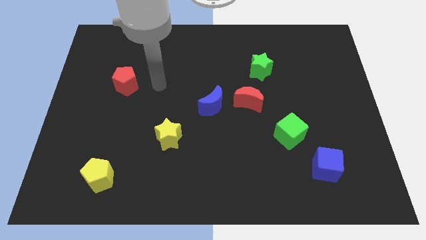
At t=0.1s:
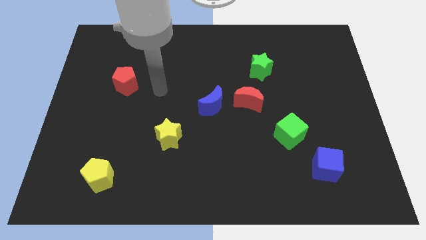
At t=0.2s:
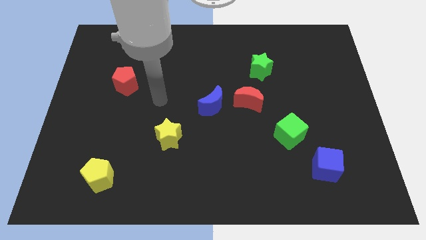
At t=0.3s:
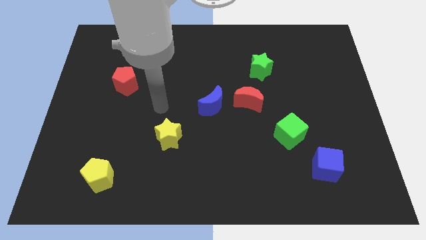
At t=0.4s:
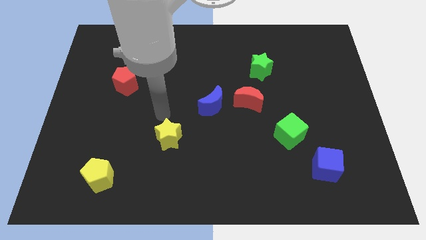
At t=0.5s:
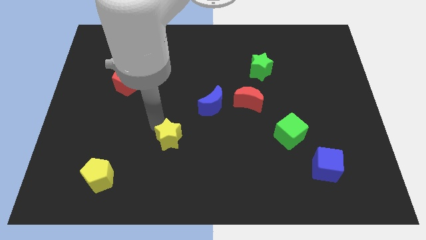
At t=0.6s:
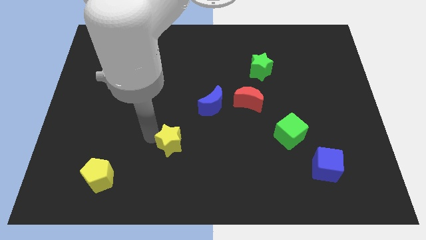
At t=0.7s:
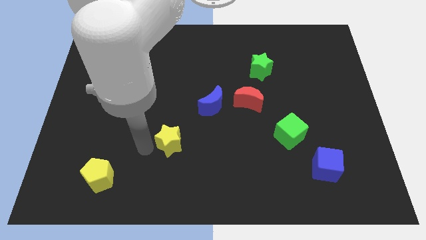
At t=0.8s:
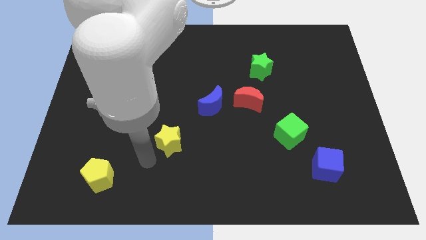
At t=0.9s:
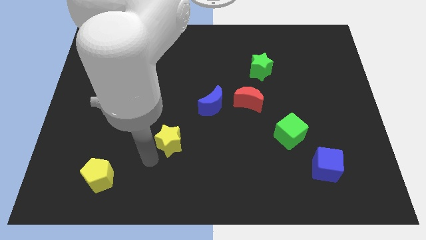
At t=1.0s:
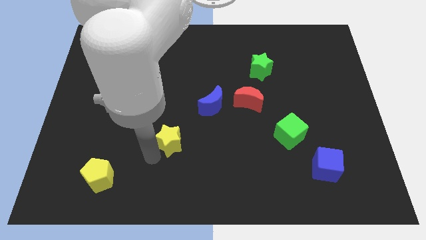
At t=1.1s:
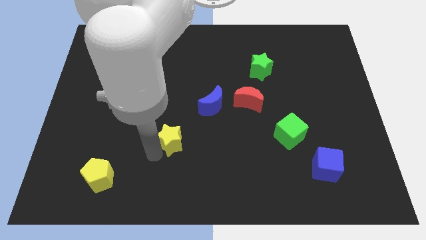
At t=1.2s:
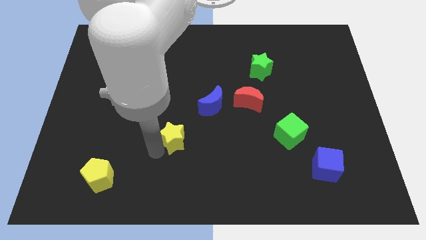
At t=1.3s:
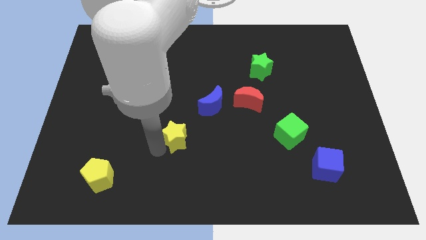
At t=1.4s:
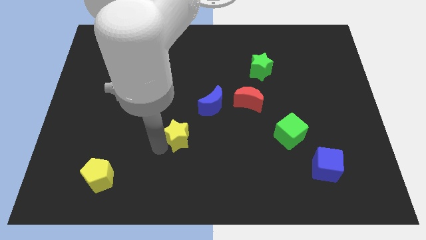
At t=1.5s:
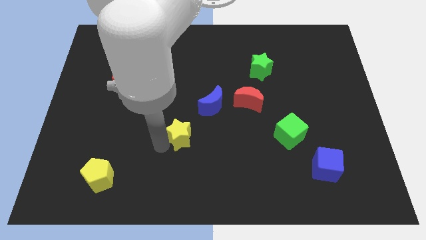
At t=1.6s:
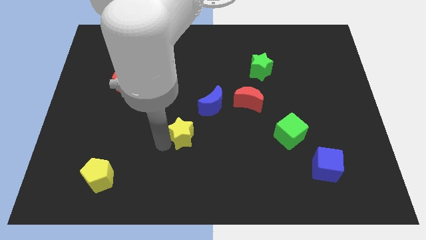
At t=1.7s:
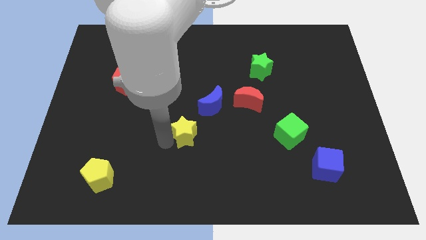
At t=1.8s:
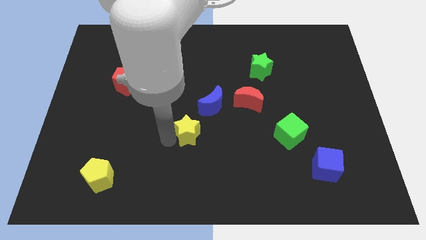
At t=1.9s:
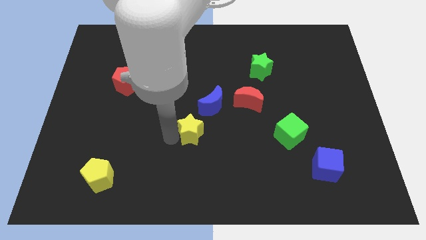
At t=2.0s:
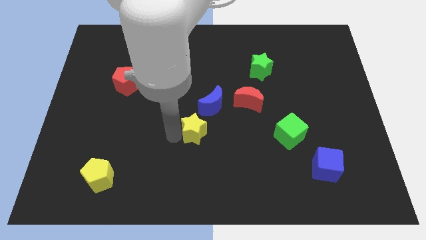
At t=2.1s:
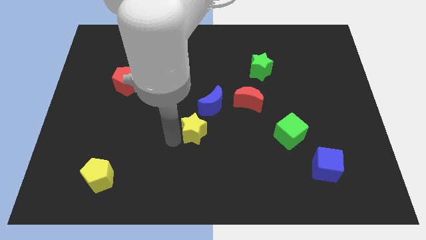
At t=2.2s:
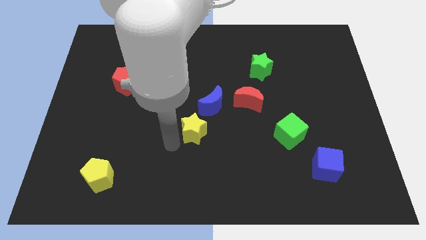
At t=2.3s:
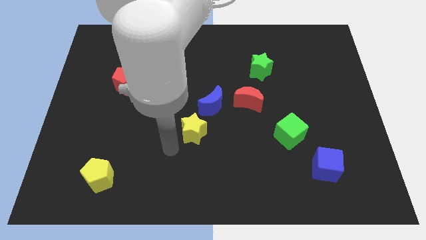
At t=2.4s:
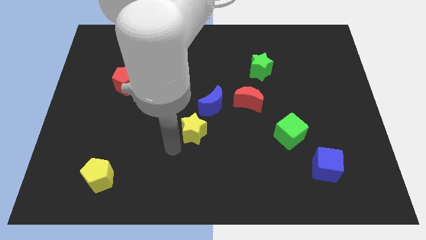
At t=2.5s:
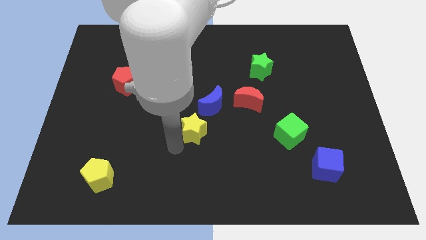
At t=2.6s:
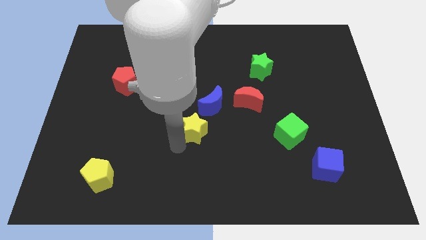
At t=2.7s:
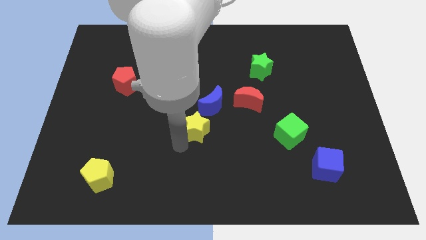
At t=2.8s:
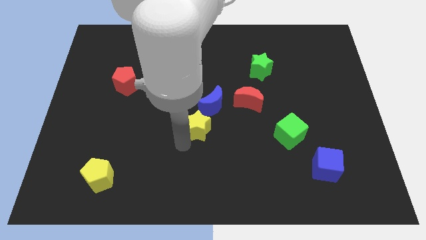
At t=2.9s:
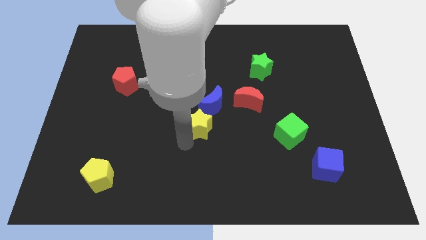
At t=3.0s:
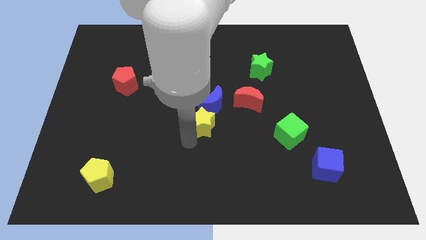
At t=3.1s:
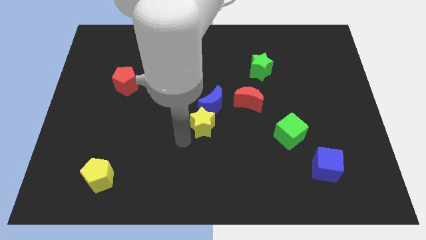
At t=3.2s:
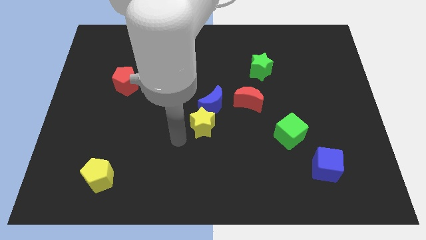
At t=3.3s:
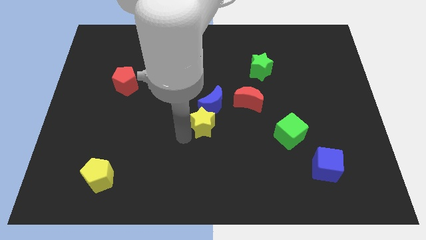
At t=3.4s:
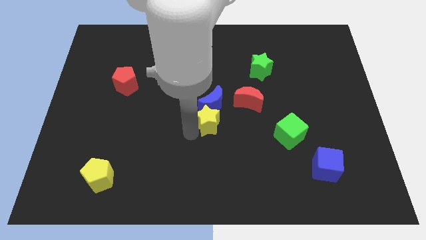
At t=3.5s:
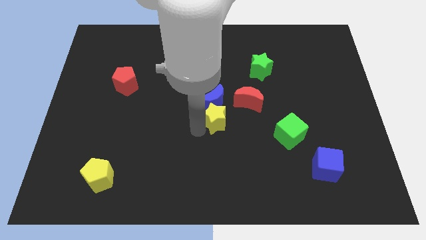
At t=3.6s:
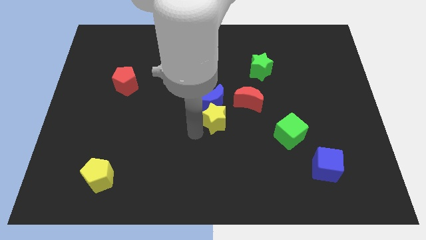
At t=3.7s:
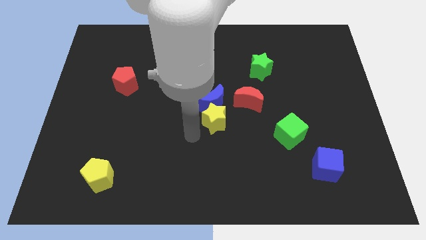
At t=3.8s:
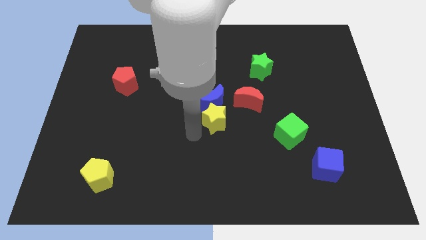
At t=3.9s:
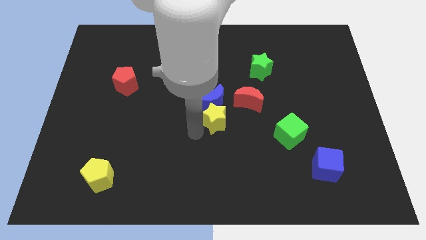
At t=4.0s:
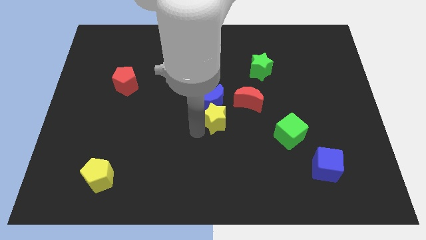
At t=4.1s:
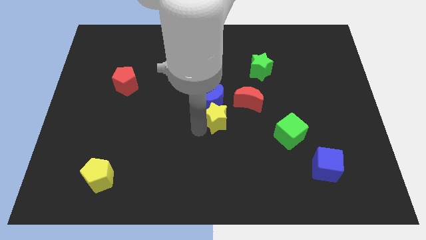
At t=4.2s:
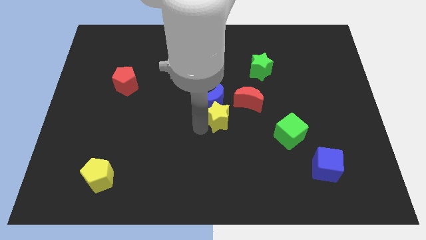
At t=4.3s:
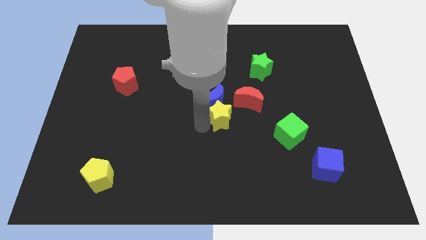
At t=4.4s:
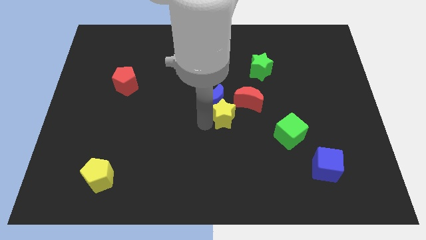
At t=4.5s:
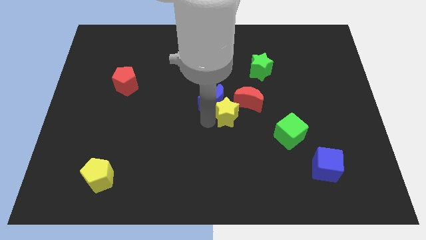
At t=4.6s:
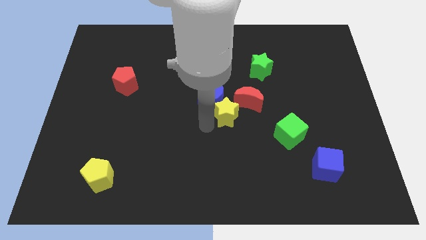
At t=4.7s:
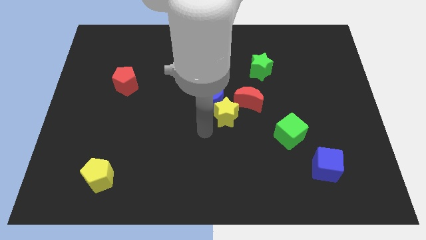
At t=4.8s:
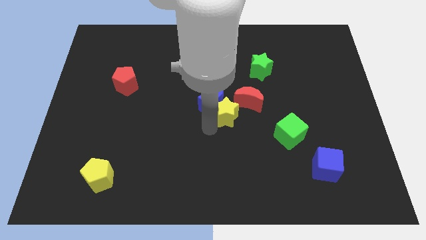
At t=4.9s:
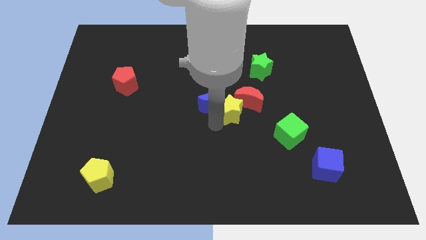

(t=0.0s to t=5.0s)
put the yellow star to the red moon

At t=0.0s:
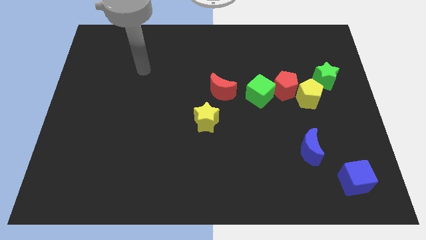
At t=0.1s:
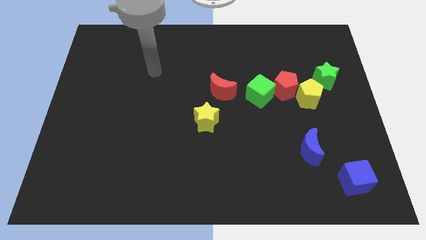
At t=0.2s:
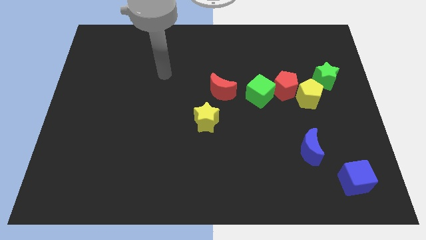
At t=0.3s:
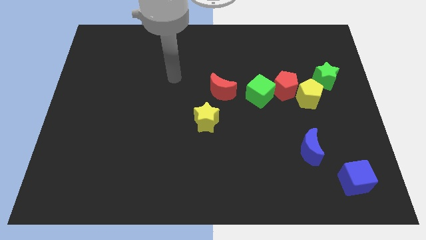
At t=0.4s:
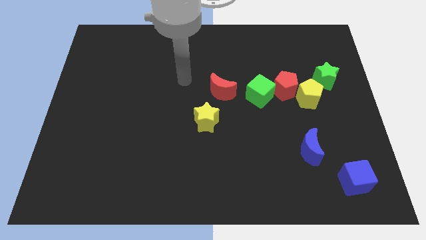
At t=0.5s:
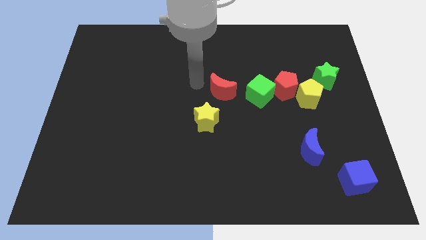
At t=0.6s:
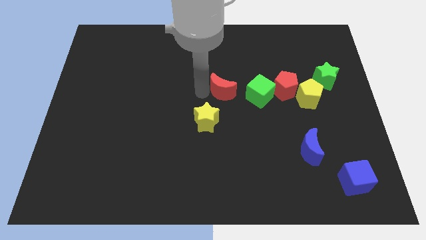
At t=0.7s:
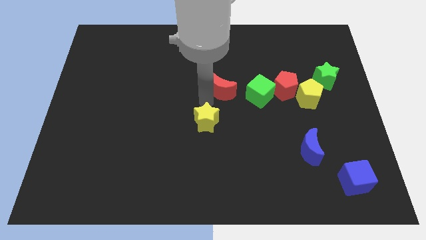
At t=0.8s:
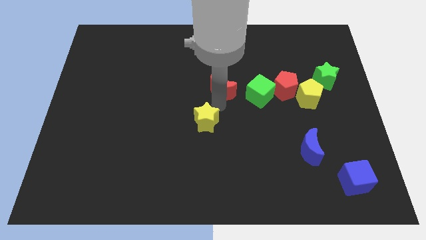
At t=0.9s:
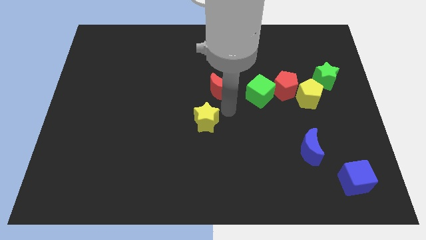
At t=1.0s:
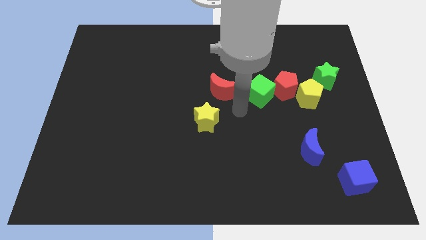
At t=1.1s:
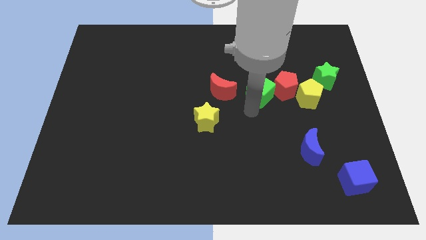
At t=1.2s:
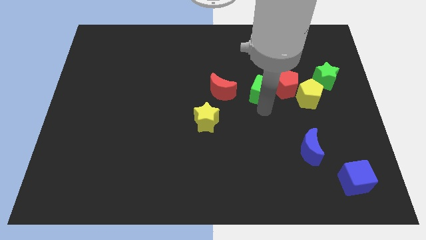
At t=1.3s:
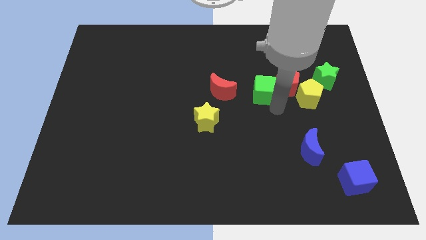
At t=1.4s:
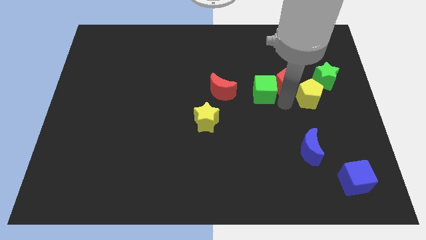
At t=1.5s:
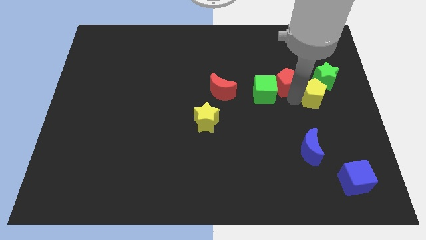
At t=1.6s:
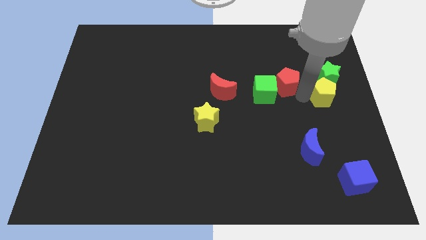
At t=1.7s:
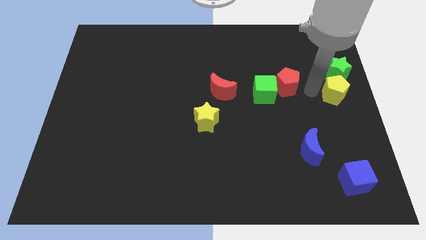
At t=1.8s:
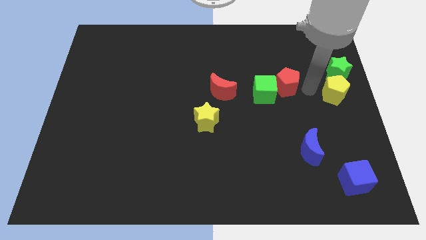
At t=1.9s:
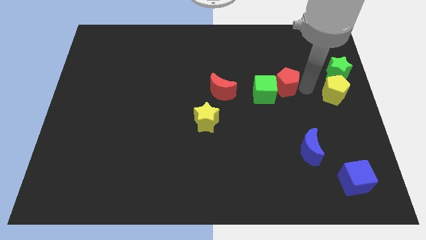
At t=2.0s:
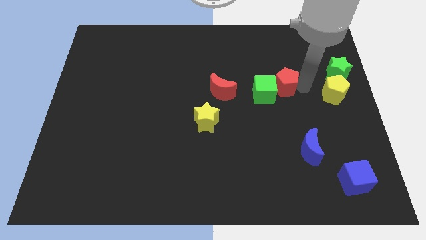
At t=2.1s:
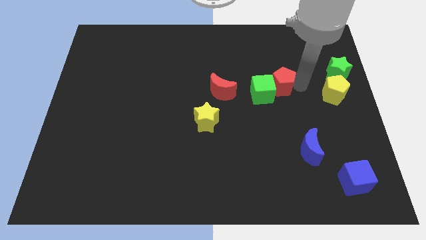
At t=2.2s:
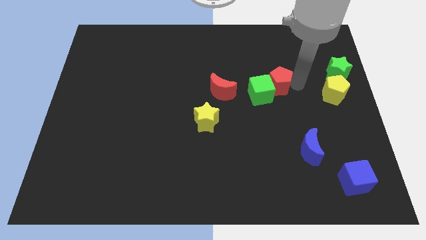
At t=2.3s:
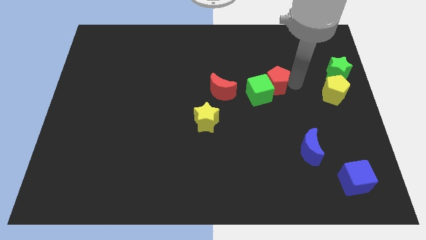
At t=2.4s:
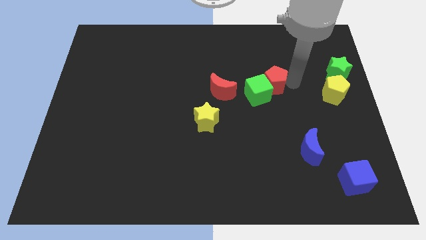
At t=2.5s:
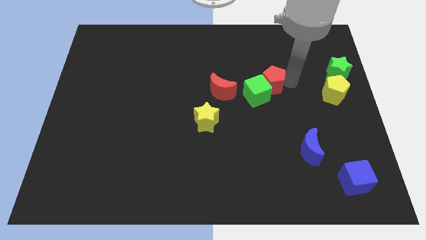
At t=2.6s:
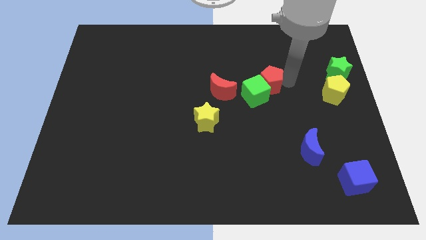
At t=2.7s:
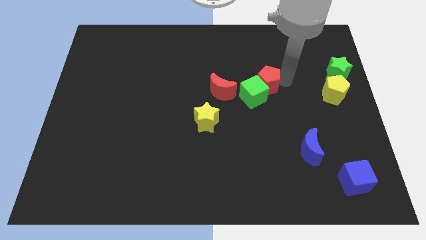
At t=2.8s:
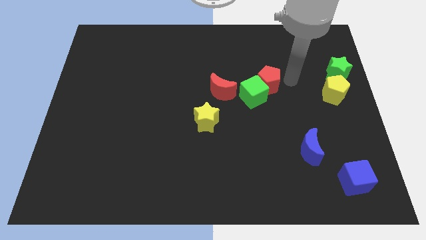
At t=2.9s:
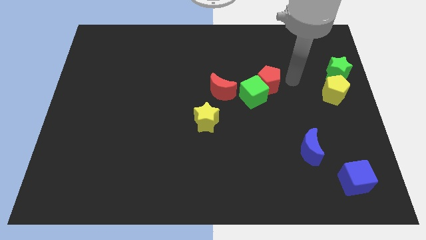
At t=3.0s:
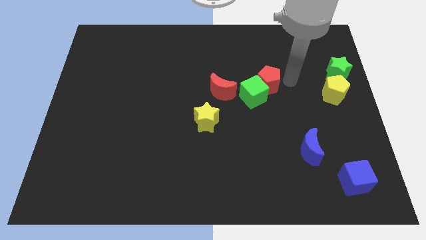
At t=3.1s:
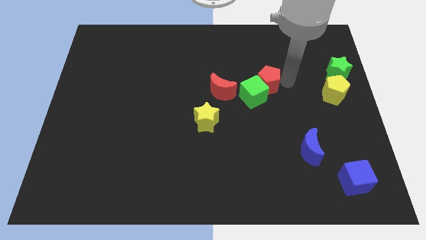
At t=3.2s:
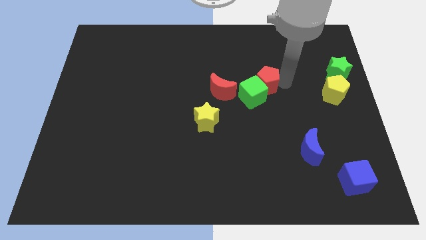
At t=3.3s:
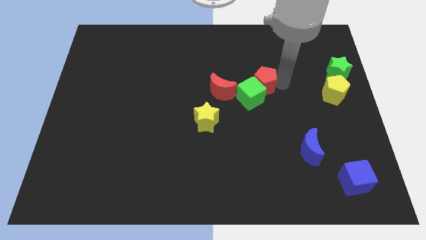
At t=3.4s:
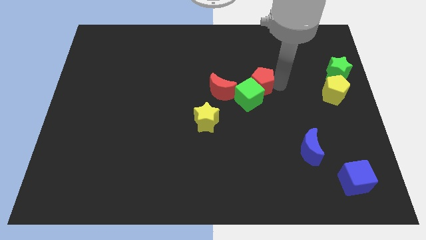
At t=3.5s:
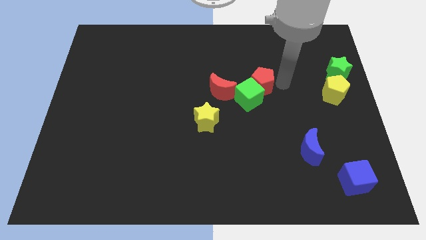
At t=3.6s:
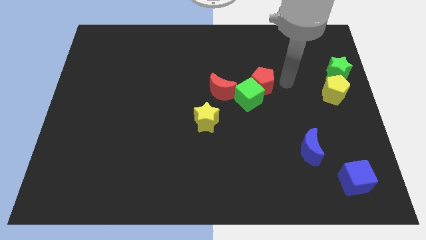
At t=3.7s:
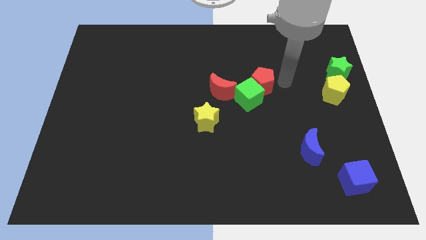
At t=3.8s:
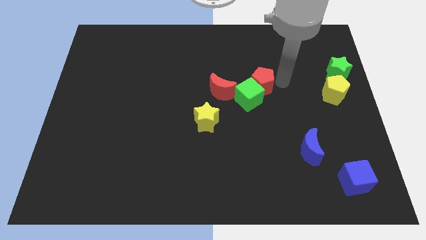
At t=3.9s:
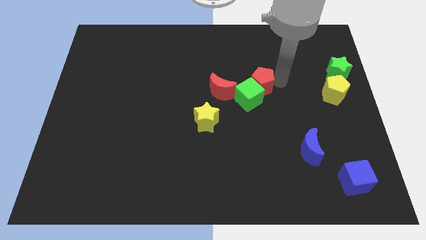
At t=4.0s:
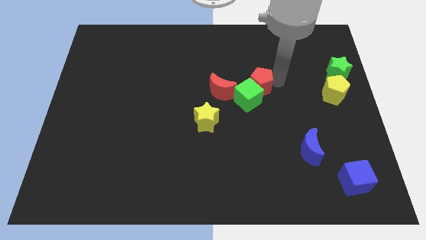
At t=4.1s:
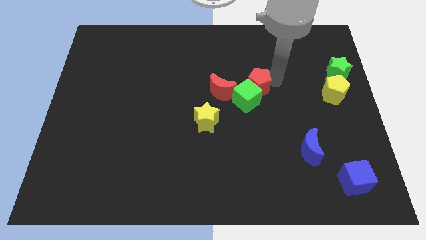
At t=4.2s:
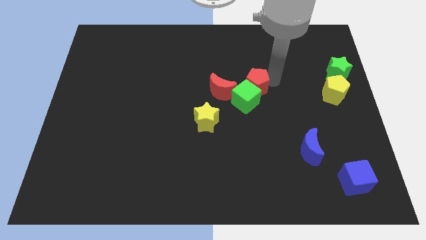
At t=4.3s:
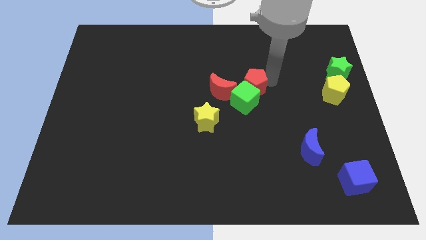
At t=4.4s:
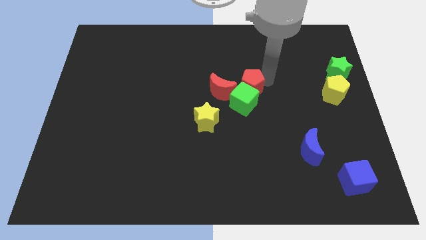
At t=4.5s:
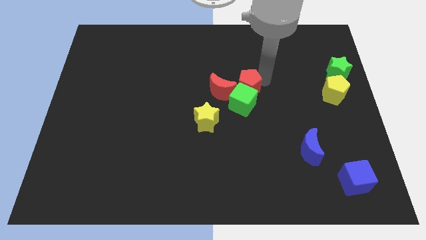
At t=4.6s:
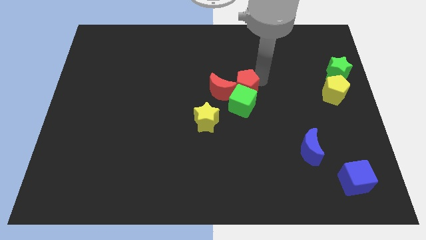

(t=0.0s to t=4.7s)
put the red pentagon to the red moon
